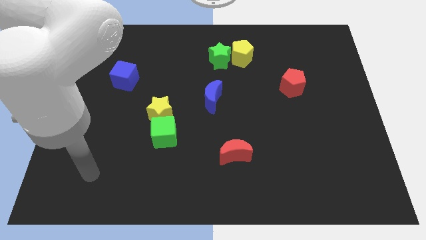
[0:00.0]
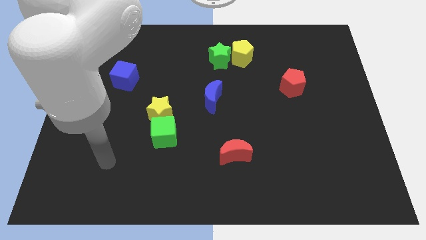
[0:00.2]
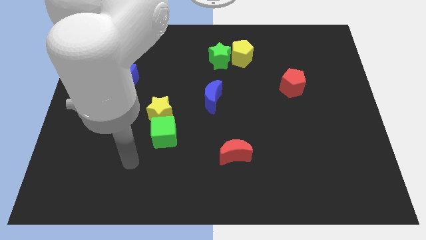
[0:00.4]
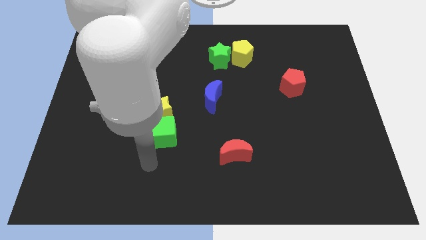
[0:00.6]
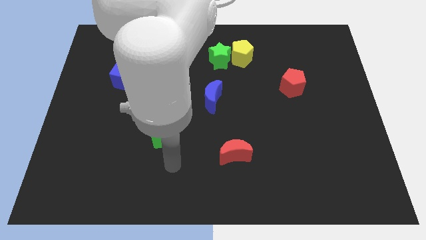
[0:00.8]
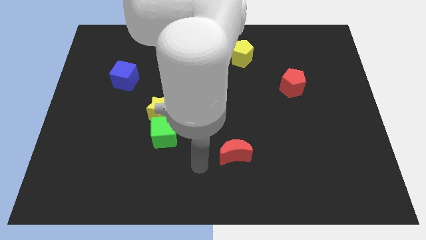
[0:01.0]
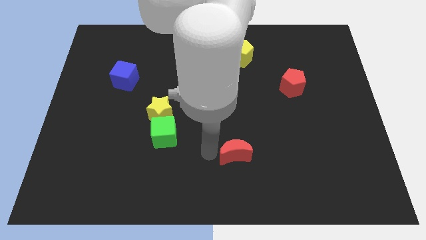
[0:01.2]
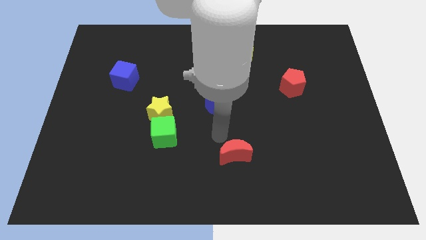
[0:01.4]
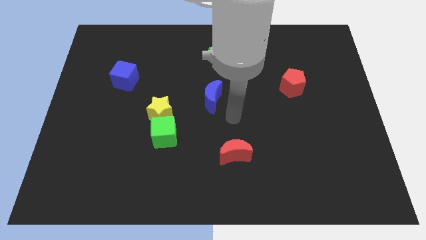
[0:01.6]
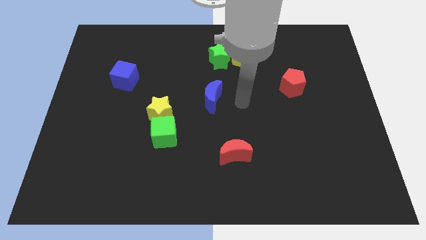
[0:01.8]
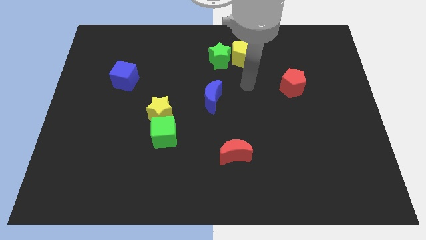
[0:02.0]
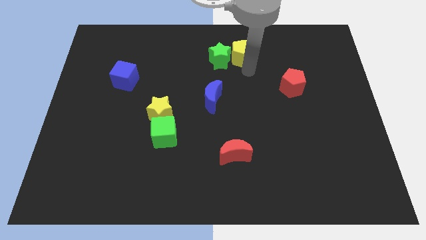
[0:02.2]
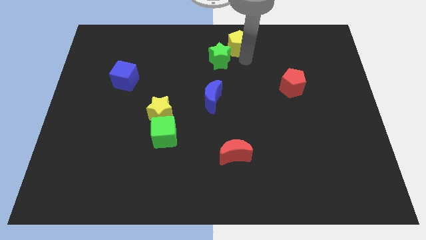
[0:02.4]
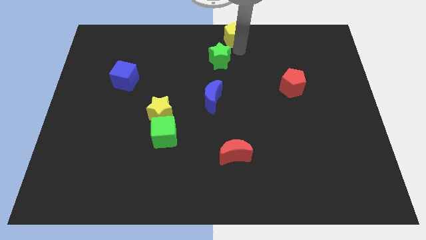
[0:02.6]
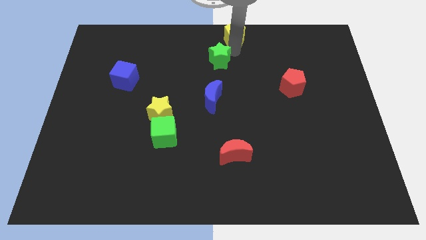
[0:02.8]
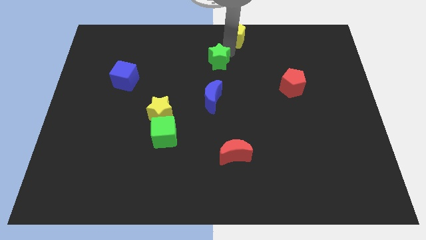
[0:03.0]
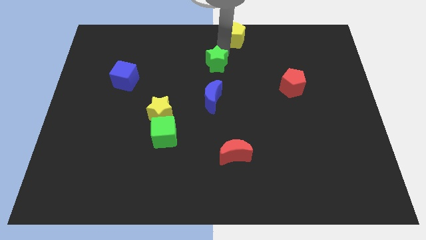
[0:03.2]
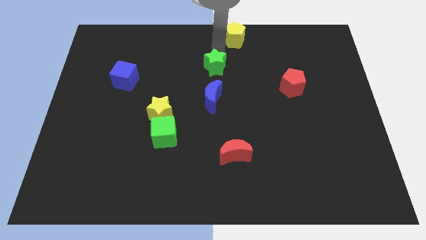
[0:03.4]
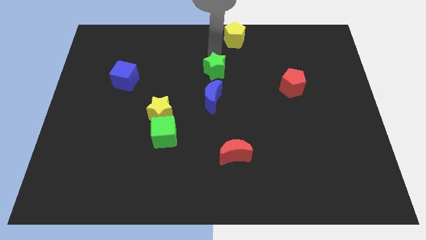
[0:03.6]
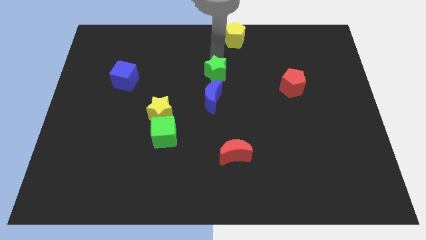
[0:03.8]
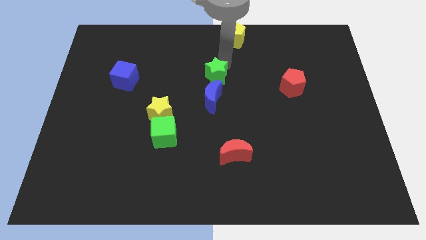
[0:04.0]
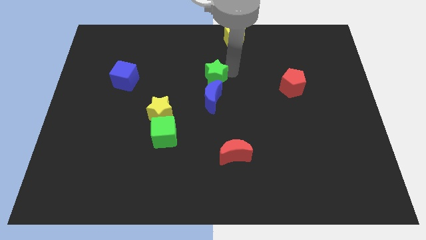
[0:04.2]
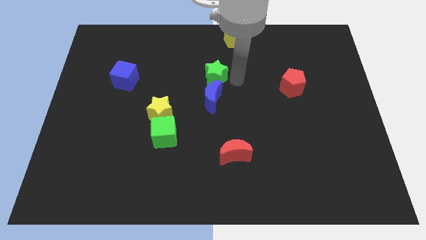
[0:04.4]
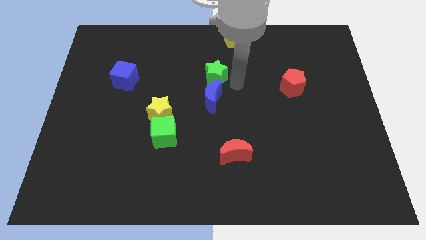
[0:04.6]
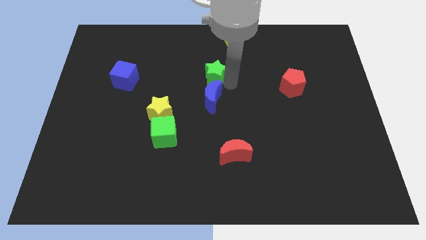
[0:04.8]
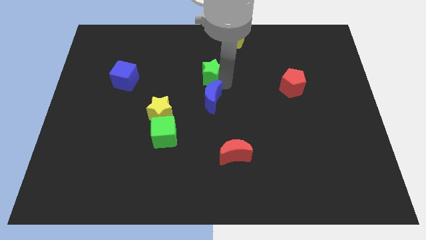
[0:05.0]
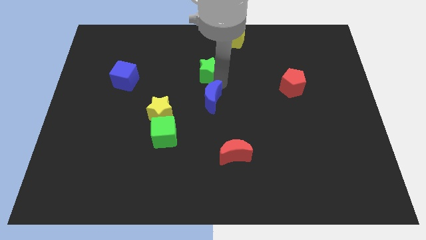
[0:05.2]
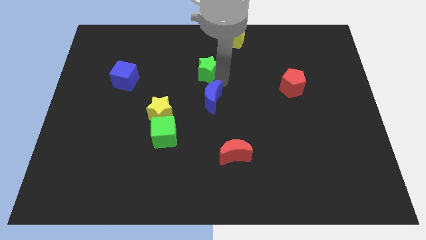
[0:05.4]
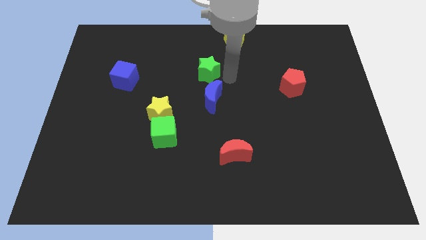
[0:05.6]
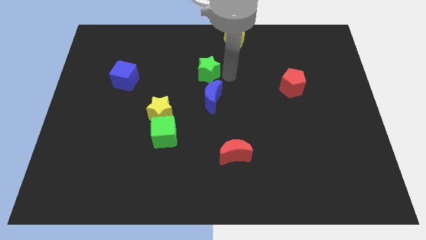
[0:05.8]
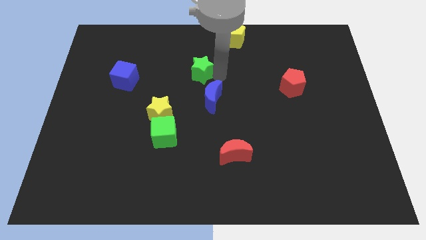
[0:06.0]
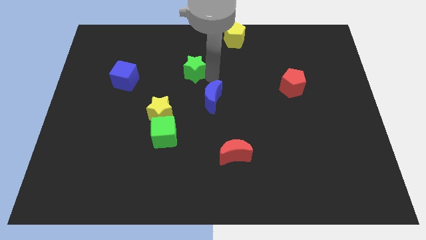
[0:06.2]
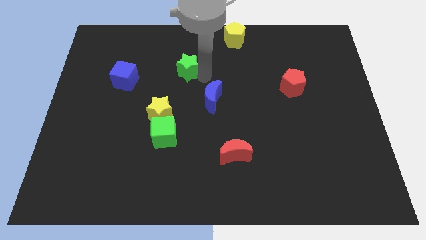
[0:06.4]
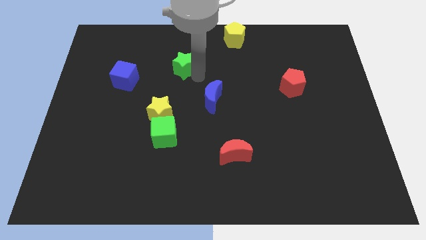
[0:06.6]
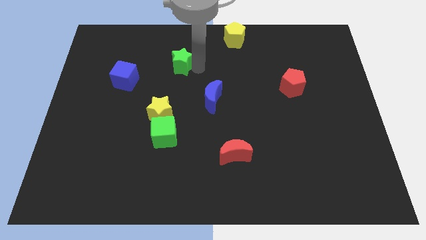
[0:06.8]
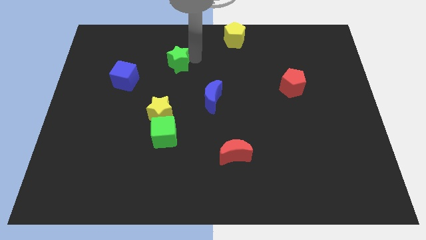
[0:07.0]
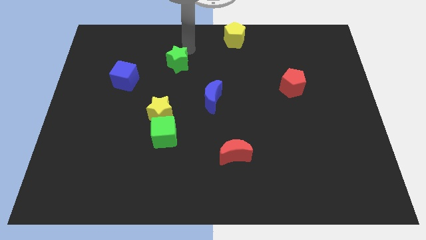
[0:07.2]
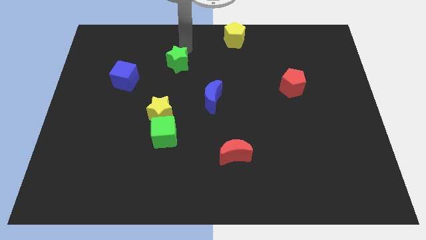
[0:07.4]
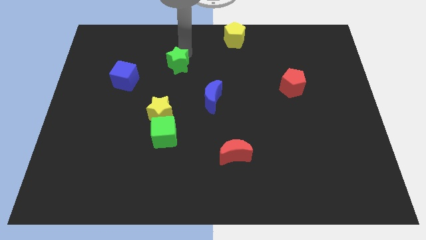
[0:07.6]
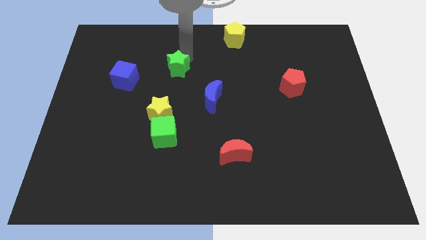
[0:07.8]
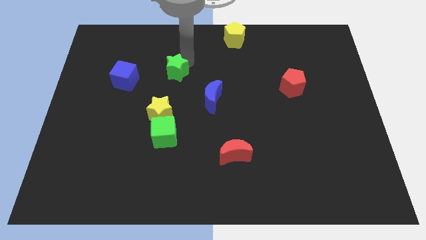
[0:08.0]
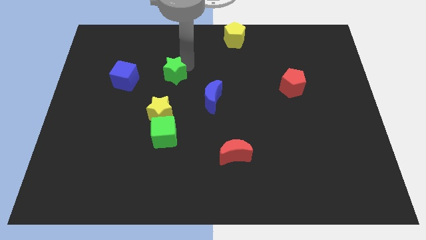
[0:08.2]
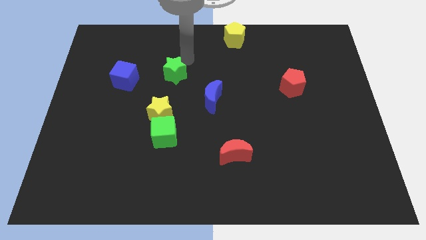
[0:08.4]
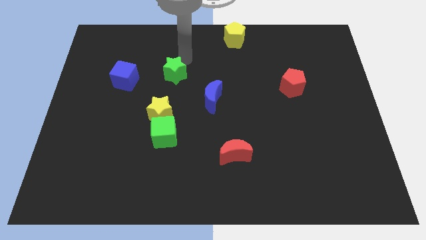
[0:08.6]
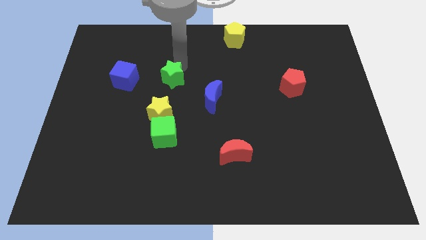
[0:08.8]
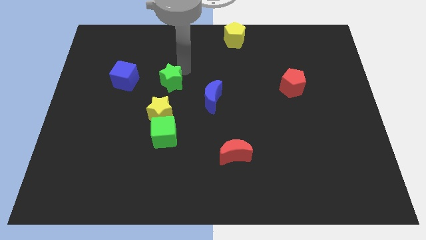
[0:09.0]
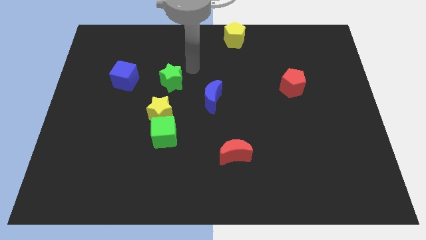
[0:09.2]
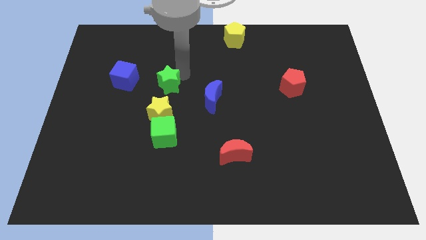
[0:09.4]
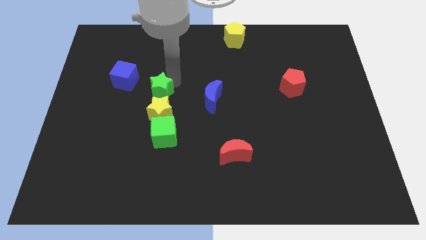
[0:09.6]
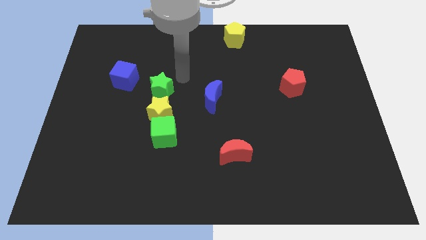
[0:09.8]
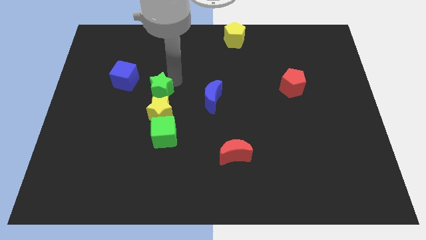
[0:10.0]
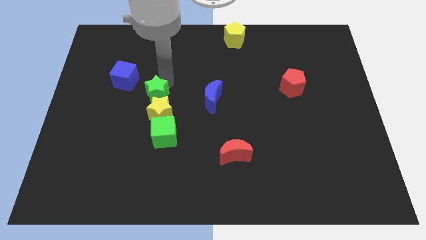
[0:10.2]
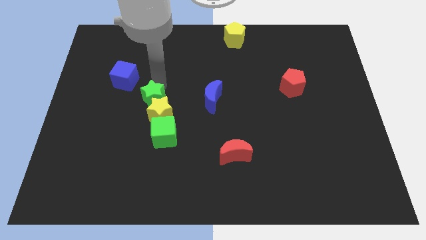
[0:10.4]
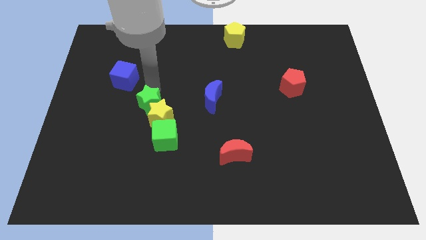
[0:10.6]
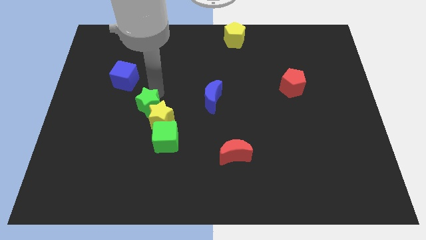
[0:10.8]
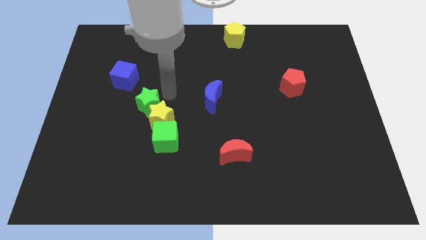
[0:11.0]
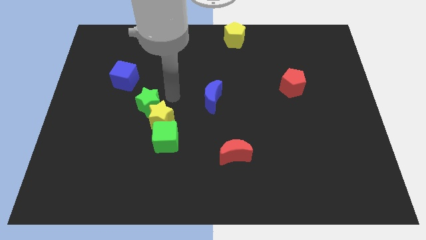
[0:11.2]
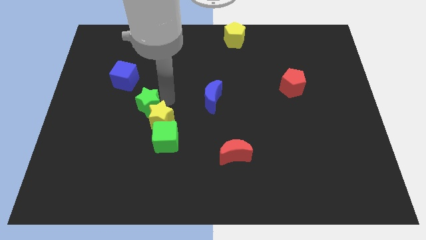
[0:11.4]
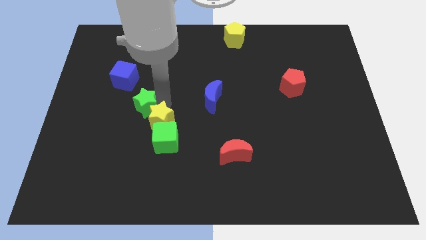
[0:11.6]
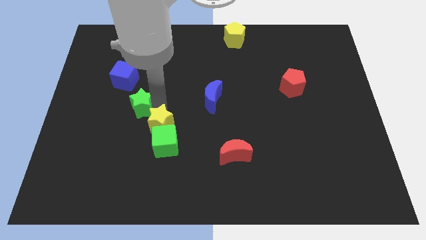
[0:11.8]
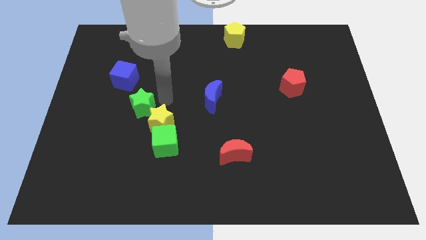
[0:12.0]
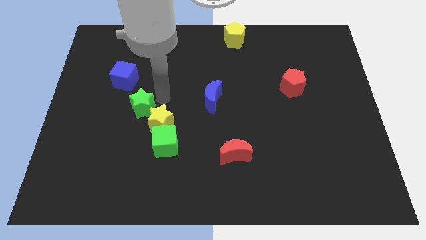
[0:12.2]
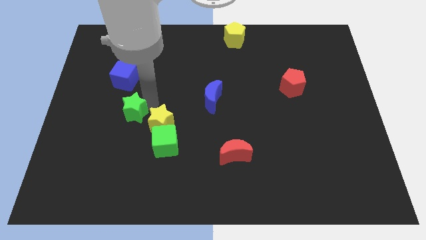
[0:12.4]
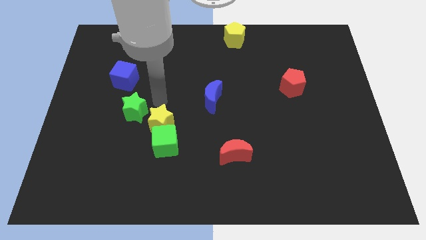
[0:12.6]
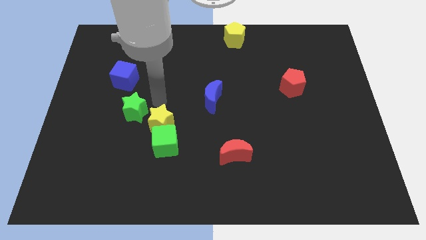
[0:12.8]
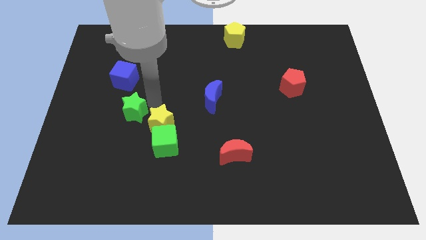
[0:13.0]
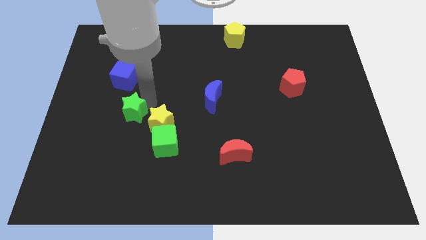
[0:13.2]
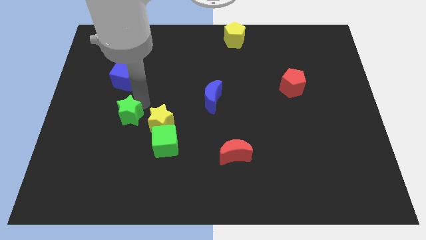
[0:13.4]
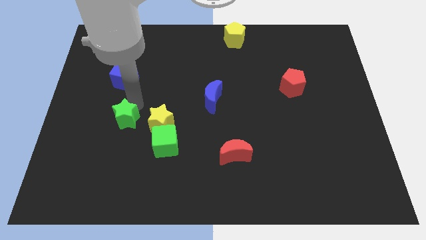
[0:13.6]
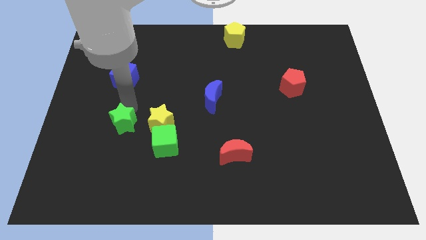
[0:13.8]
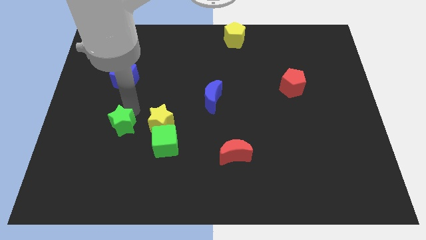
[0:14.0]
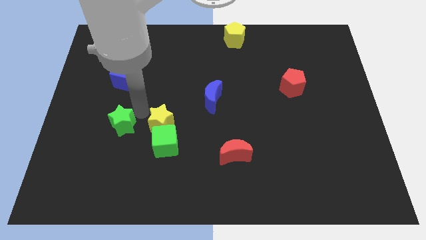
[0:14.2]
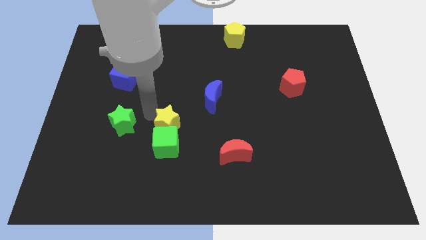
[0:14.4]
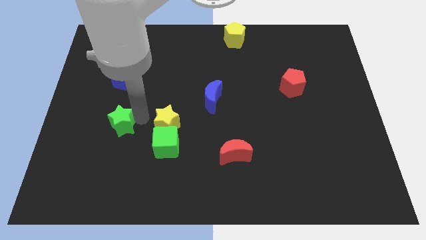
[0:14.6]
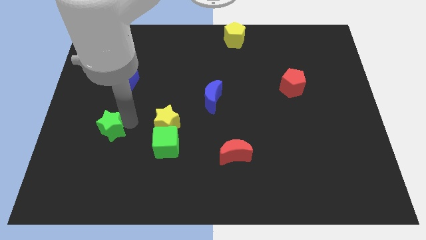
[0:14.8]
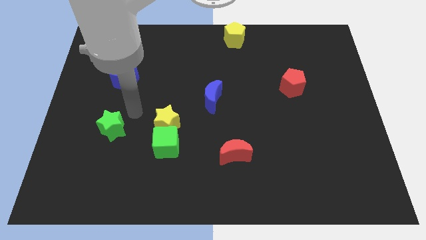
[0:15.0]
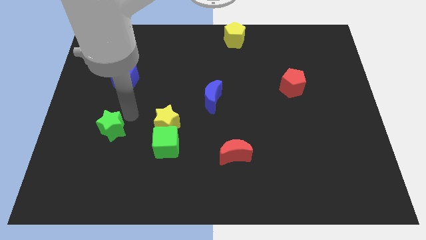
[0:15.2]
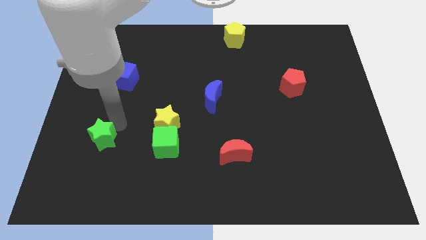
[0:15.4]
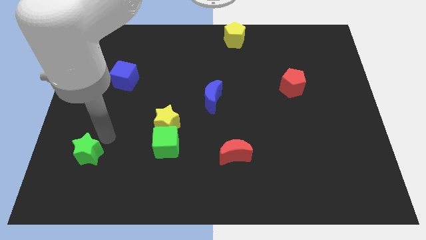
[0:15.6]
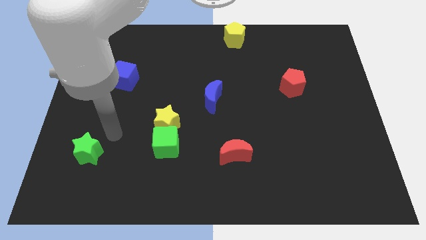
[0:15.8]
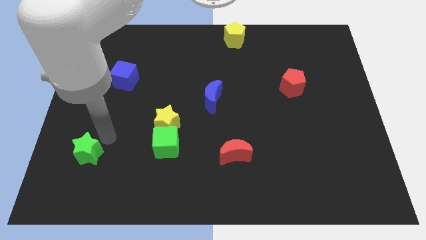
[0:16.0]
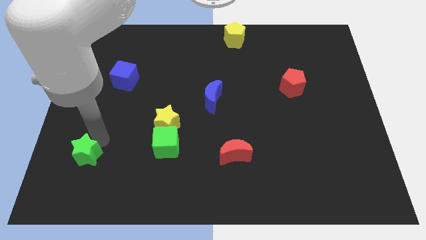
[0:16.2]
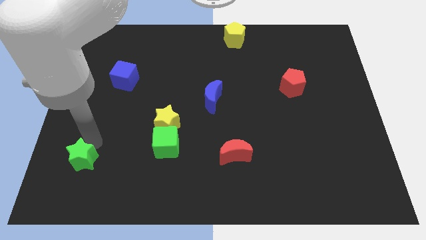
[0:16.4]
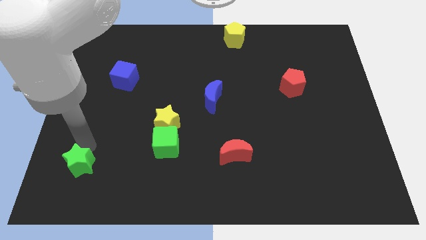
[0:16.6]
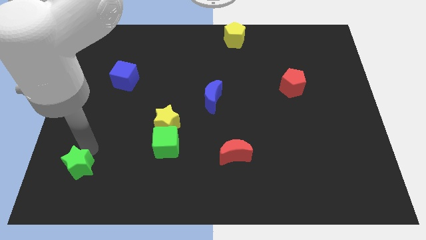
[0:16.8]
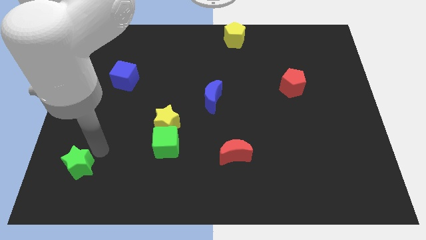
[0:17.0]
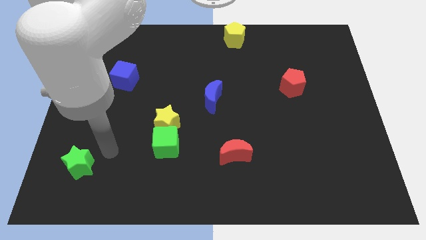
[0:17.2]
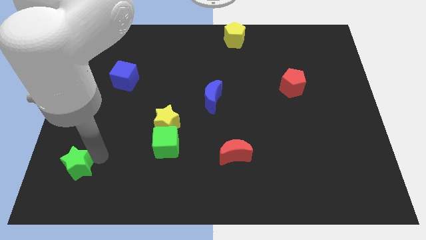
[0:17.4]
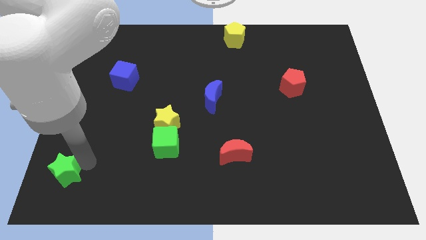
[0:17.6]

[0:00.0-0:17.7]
push the green star to the bottom left corner
